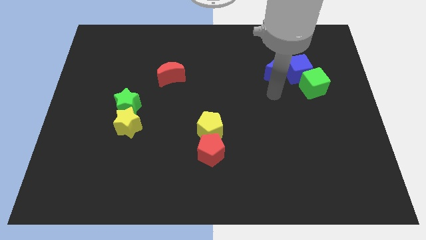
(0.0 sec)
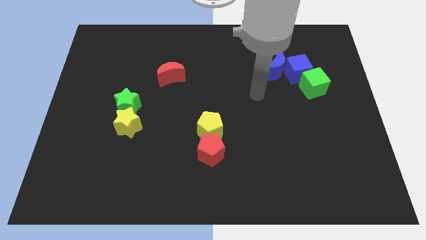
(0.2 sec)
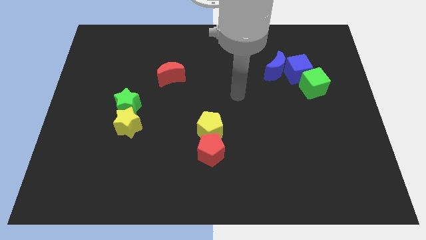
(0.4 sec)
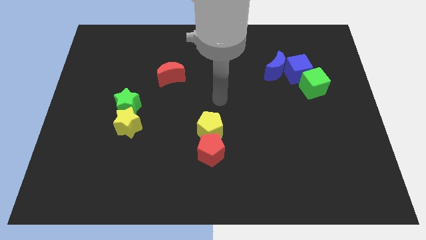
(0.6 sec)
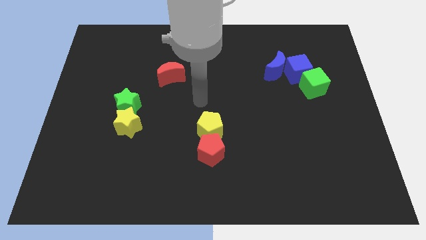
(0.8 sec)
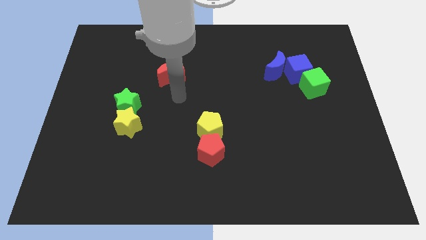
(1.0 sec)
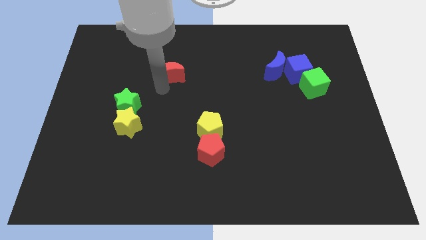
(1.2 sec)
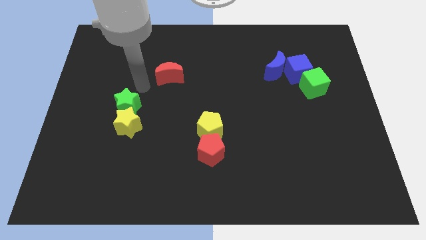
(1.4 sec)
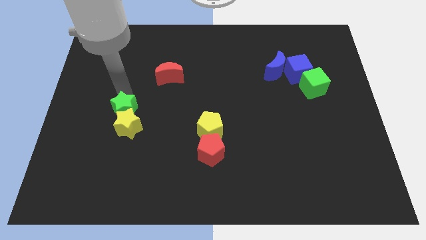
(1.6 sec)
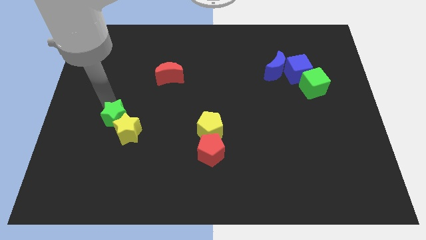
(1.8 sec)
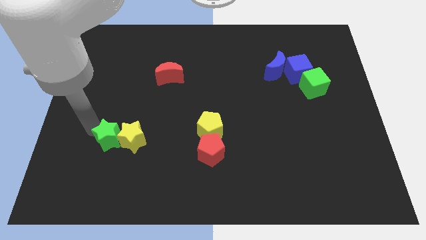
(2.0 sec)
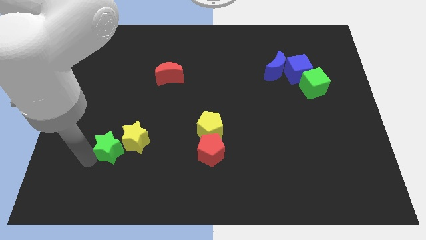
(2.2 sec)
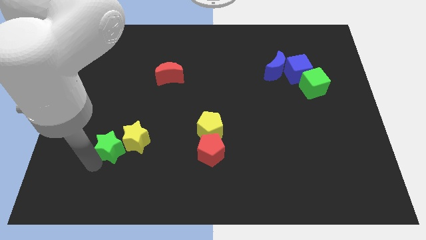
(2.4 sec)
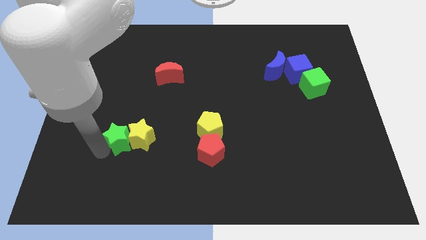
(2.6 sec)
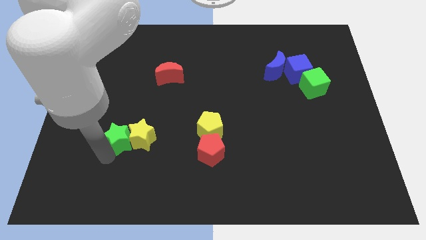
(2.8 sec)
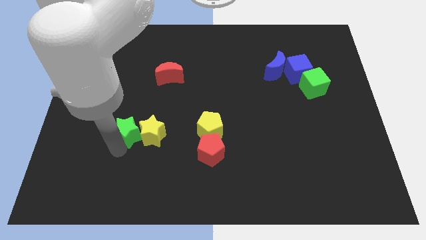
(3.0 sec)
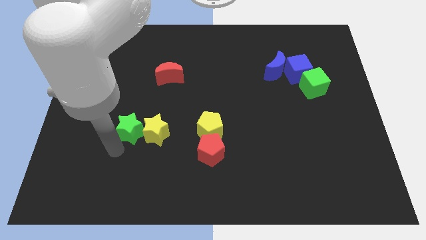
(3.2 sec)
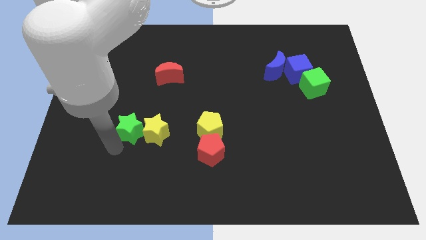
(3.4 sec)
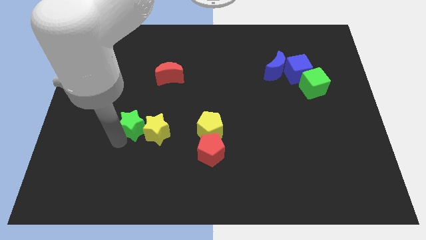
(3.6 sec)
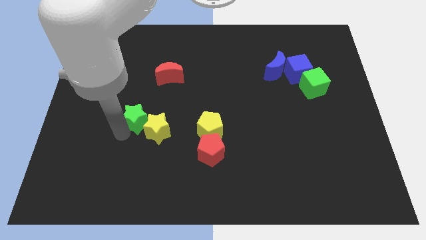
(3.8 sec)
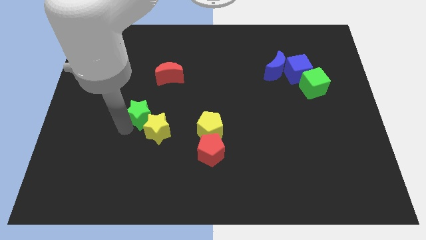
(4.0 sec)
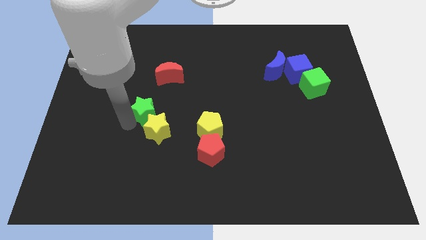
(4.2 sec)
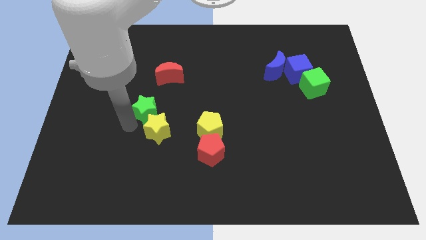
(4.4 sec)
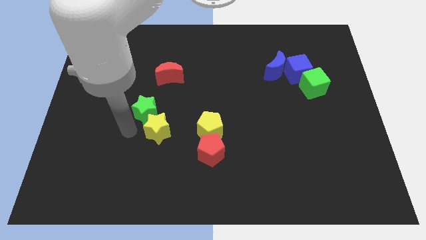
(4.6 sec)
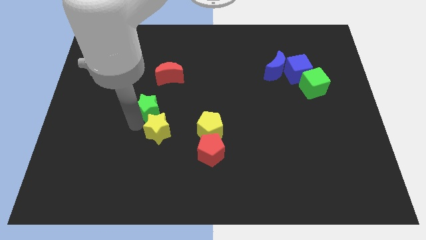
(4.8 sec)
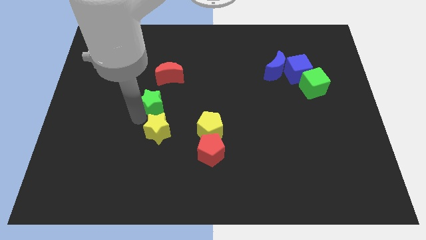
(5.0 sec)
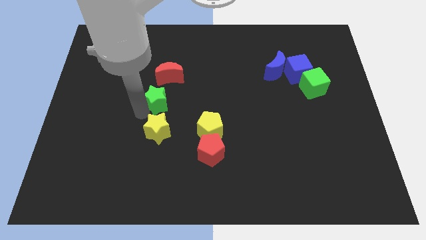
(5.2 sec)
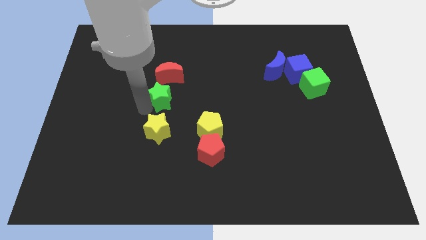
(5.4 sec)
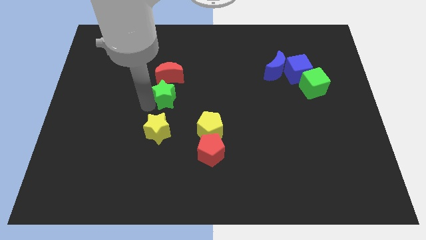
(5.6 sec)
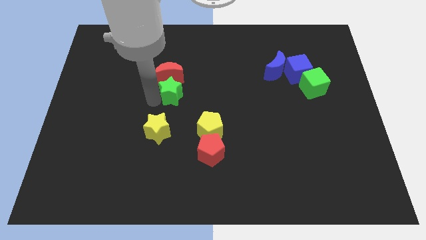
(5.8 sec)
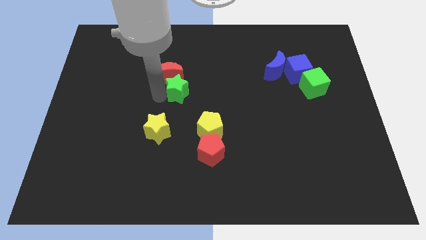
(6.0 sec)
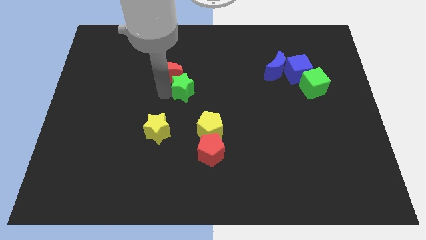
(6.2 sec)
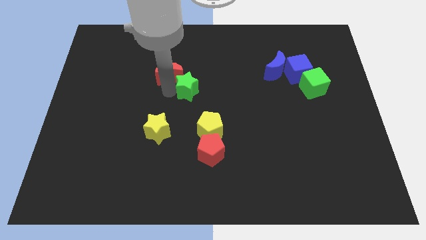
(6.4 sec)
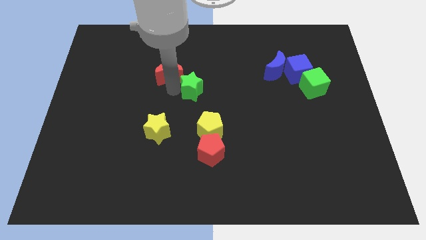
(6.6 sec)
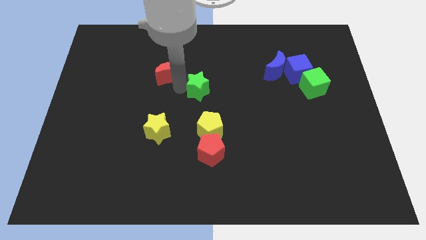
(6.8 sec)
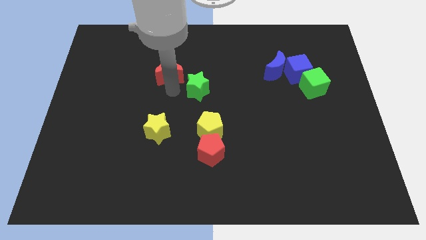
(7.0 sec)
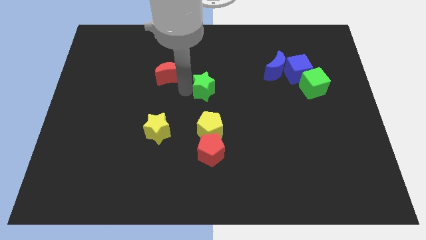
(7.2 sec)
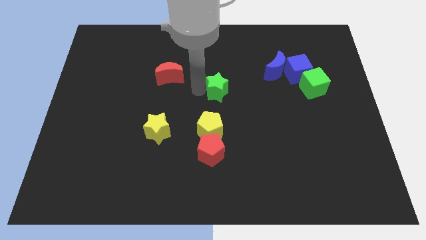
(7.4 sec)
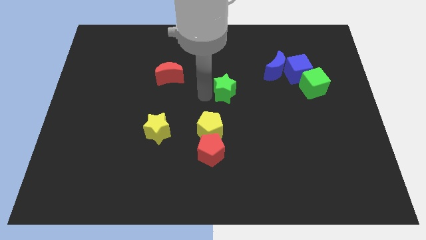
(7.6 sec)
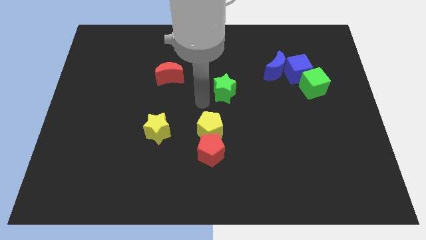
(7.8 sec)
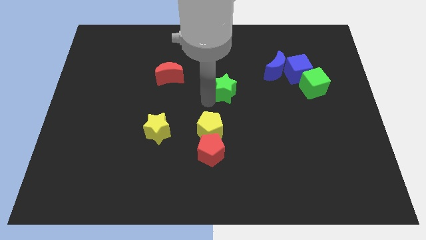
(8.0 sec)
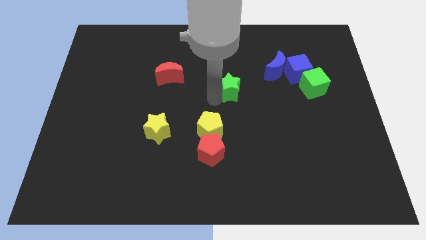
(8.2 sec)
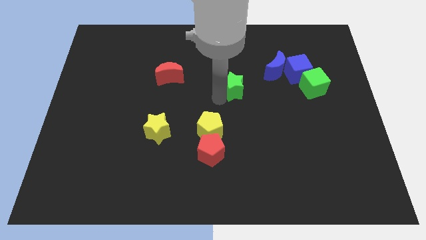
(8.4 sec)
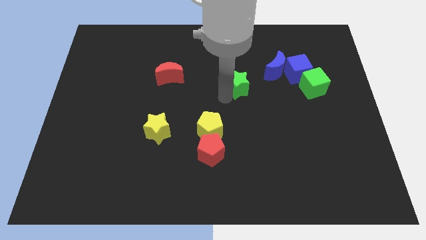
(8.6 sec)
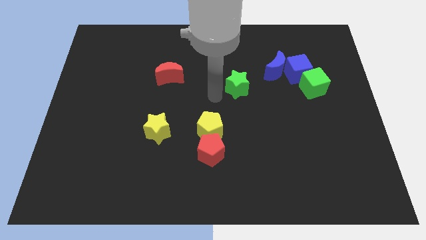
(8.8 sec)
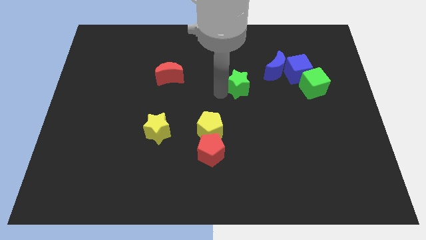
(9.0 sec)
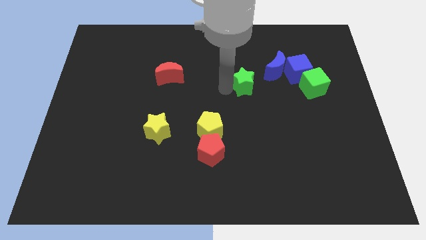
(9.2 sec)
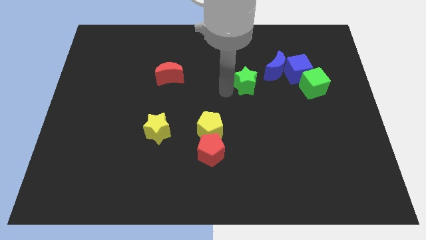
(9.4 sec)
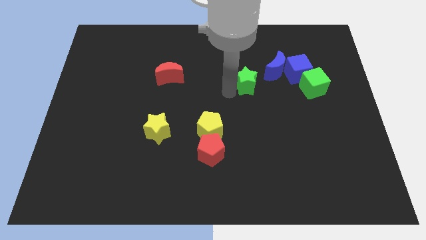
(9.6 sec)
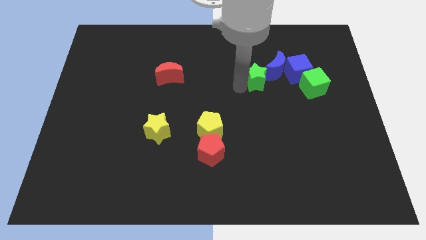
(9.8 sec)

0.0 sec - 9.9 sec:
push the green star towards the blue moon

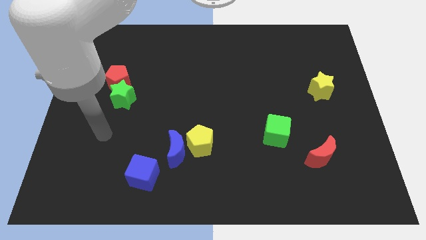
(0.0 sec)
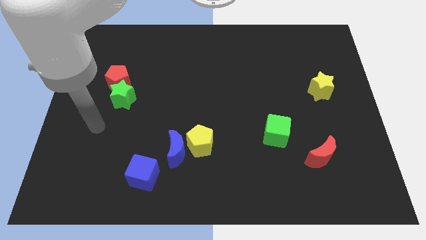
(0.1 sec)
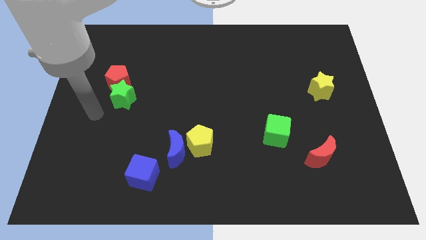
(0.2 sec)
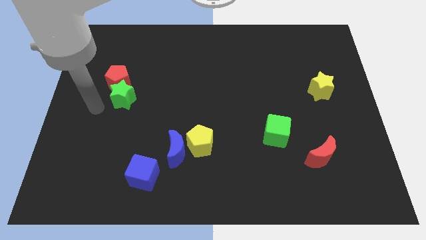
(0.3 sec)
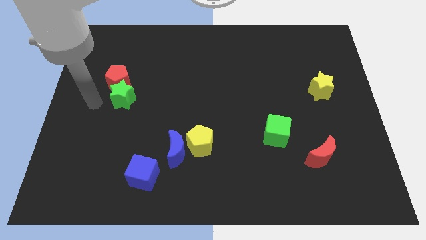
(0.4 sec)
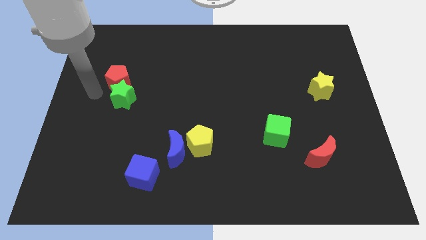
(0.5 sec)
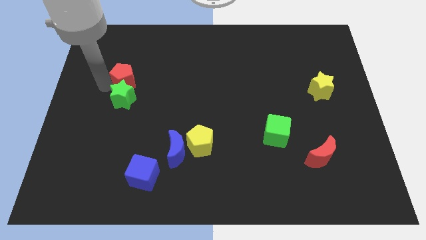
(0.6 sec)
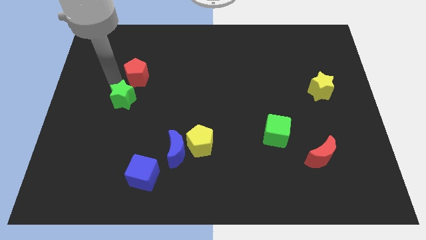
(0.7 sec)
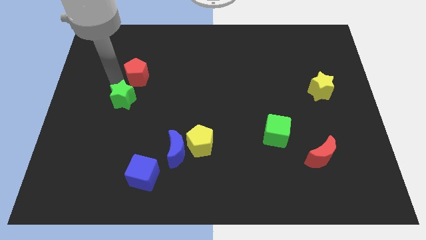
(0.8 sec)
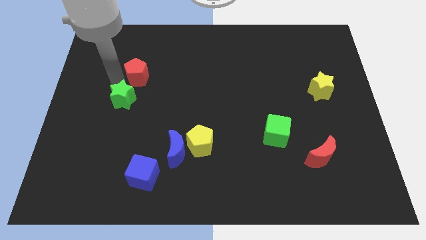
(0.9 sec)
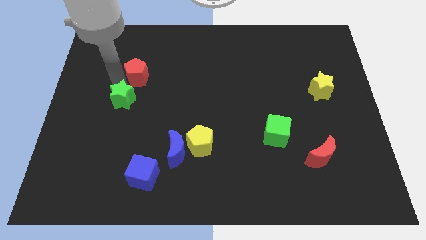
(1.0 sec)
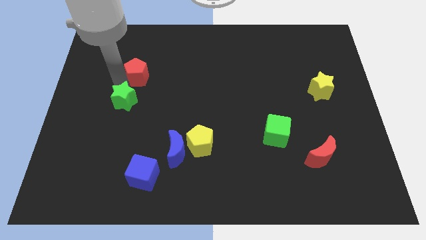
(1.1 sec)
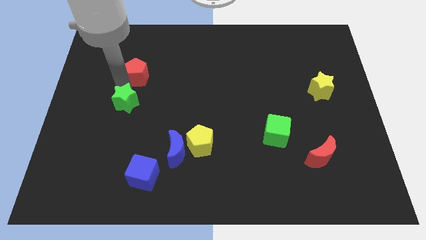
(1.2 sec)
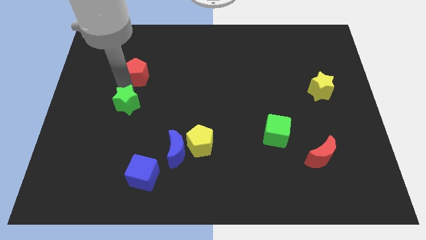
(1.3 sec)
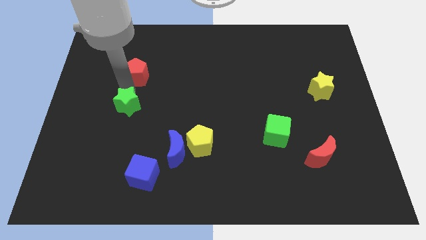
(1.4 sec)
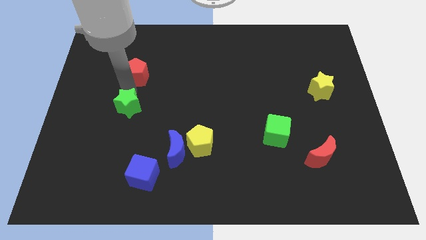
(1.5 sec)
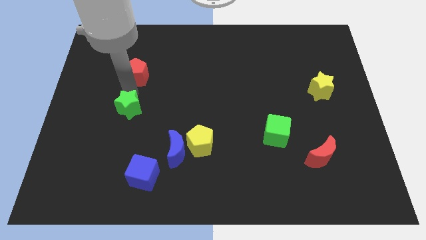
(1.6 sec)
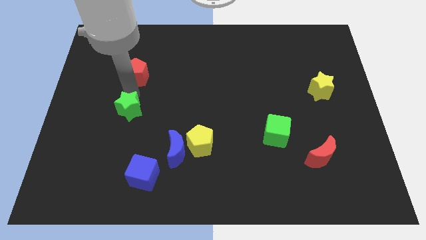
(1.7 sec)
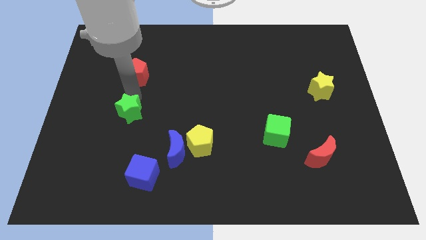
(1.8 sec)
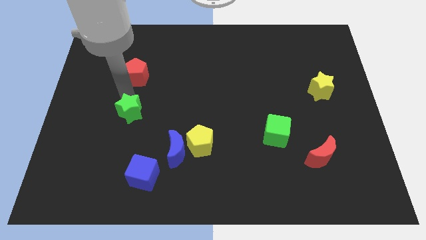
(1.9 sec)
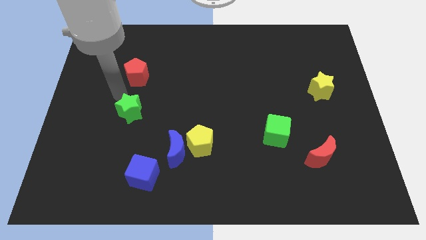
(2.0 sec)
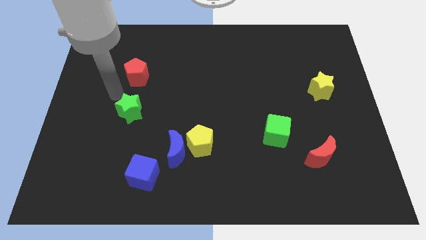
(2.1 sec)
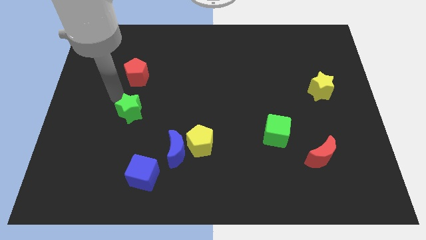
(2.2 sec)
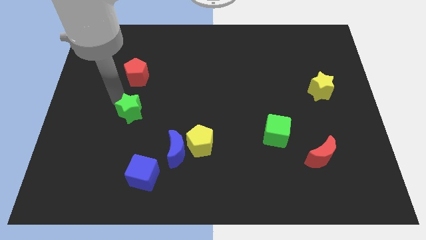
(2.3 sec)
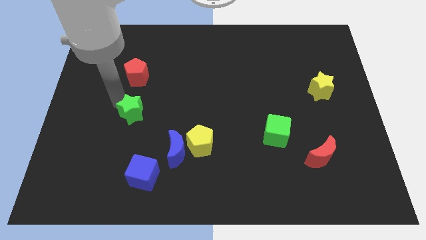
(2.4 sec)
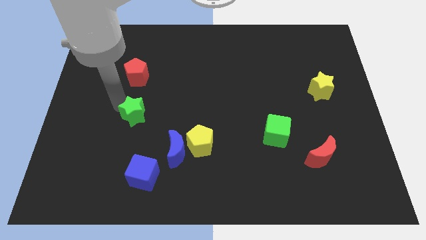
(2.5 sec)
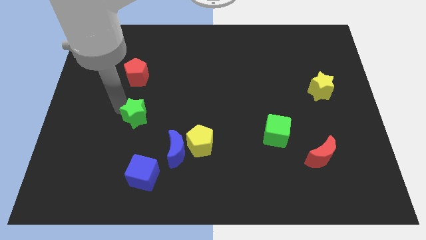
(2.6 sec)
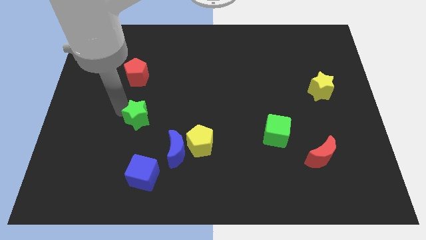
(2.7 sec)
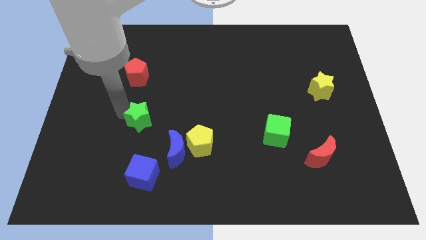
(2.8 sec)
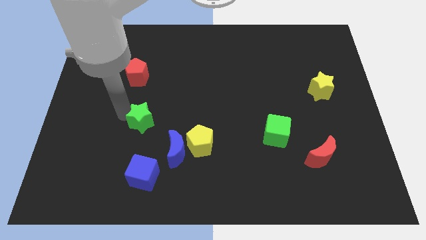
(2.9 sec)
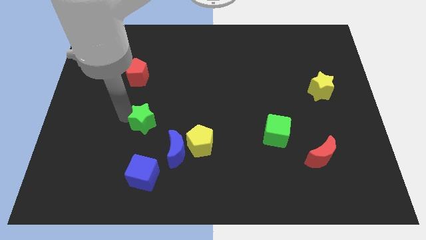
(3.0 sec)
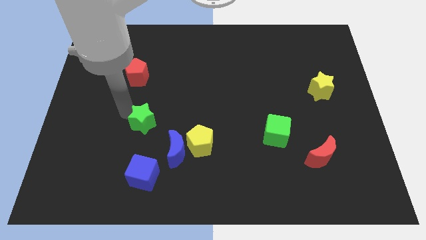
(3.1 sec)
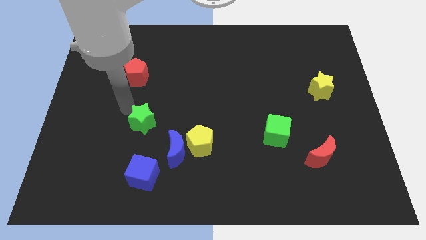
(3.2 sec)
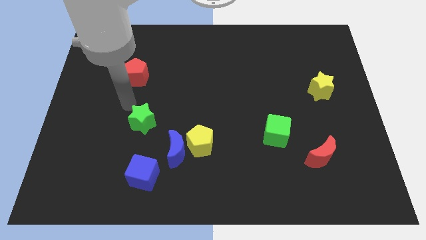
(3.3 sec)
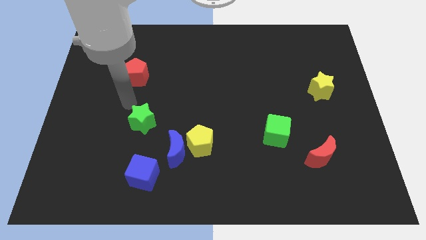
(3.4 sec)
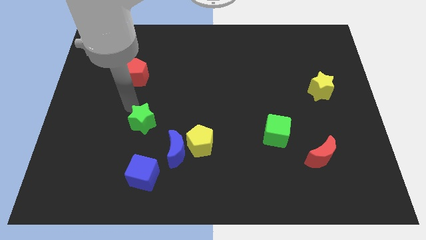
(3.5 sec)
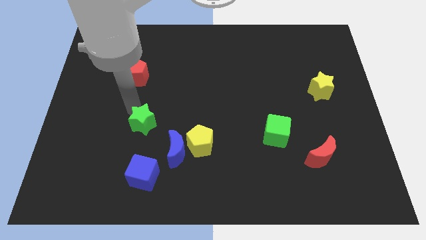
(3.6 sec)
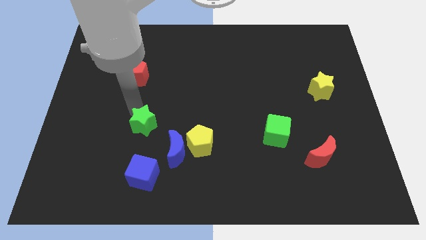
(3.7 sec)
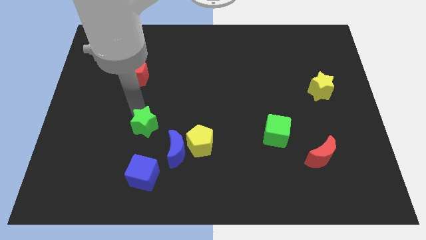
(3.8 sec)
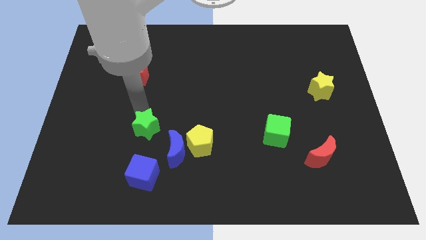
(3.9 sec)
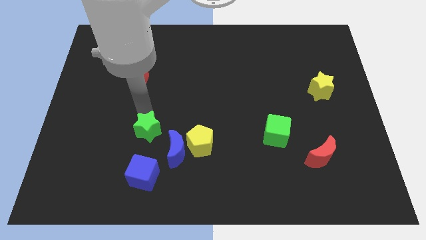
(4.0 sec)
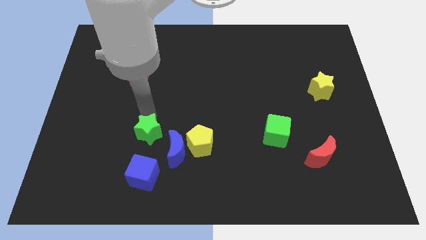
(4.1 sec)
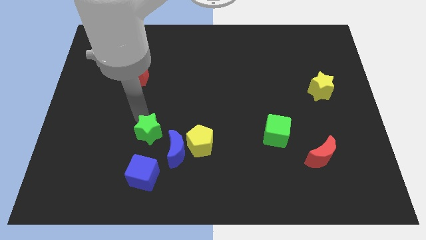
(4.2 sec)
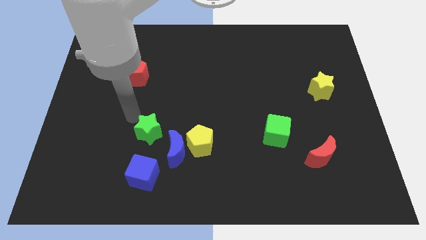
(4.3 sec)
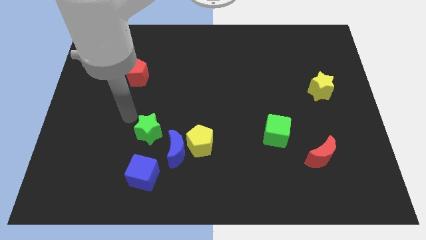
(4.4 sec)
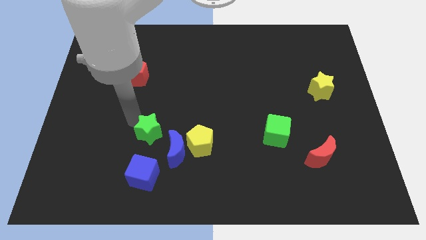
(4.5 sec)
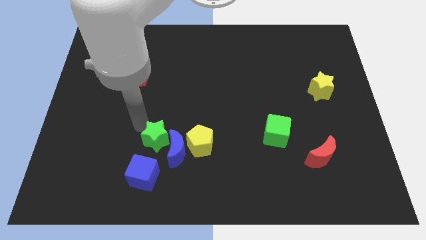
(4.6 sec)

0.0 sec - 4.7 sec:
put the green star towards the blue moon
